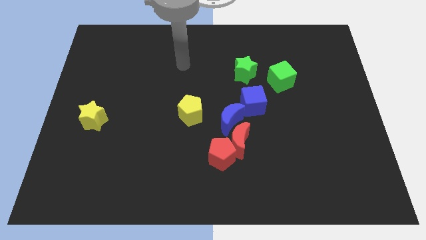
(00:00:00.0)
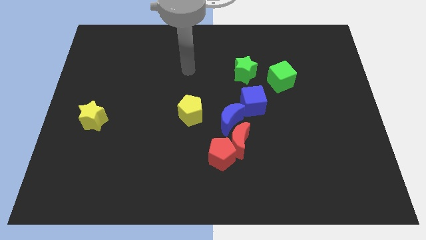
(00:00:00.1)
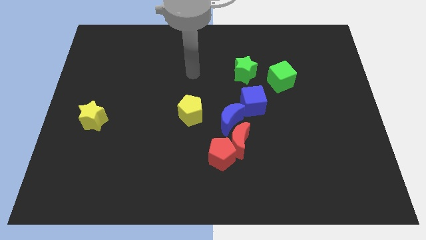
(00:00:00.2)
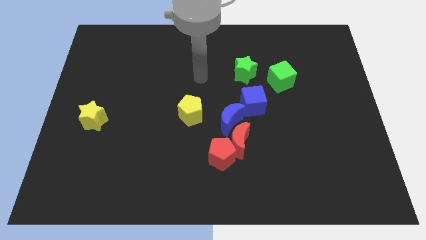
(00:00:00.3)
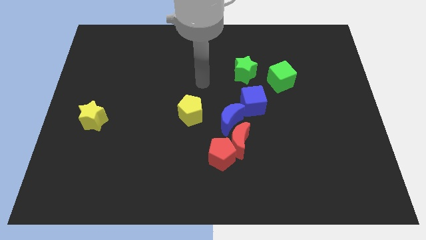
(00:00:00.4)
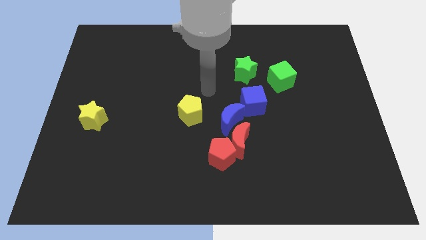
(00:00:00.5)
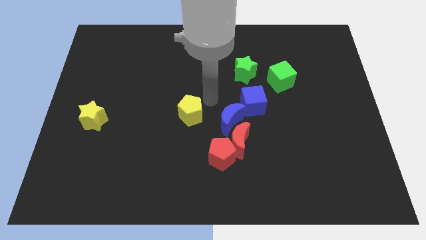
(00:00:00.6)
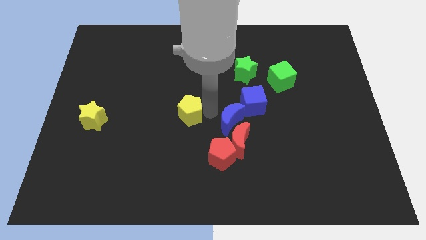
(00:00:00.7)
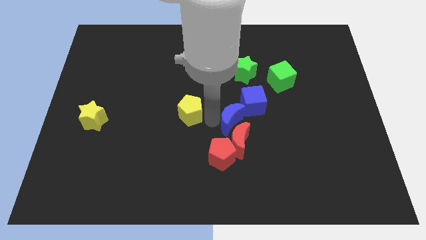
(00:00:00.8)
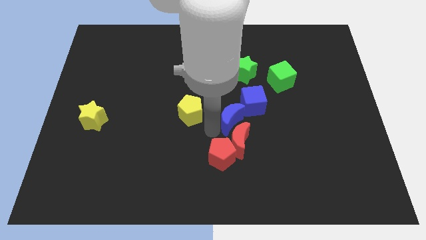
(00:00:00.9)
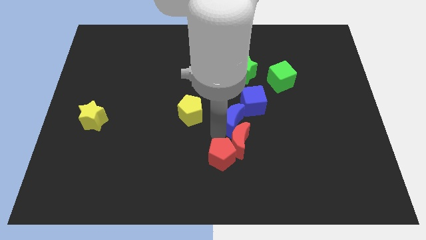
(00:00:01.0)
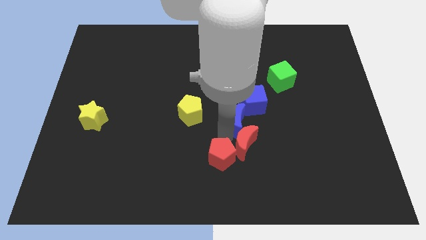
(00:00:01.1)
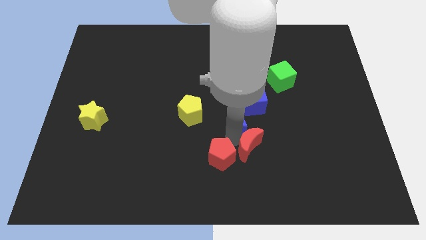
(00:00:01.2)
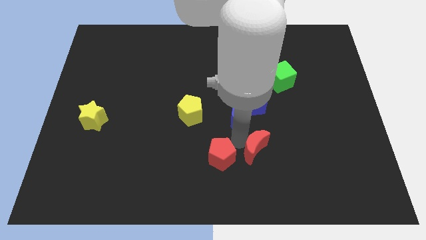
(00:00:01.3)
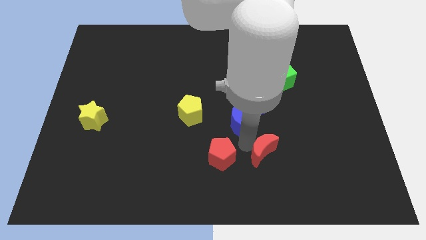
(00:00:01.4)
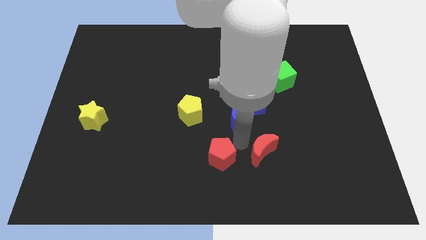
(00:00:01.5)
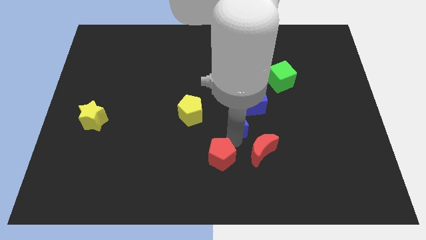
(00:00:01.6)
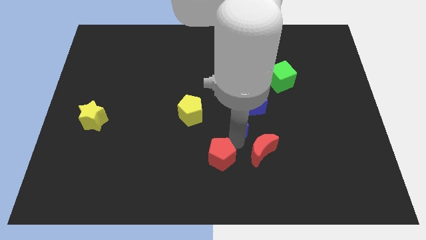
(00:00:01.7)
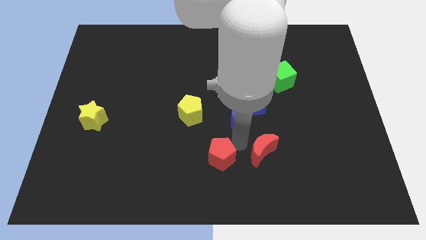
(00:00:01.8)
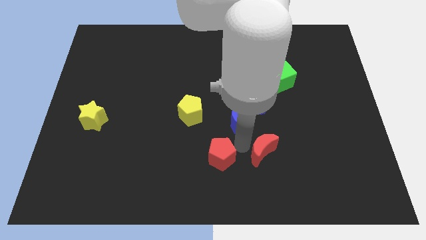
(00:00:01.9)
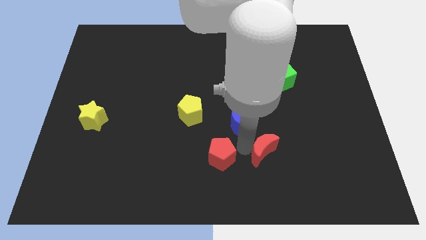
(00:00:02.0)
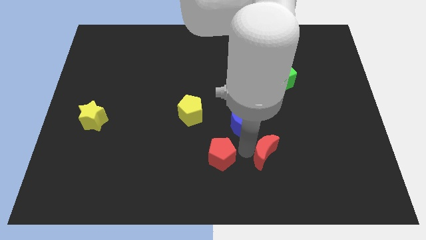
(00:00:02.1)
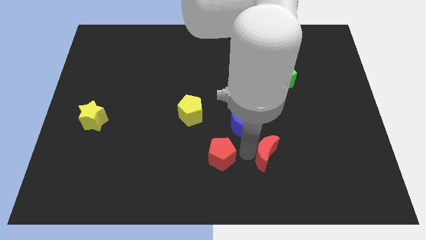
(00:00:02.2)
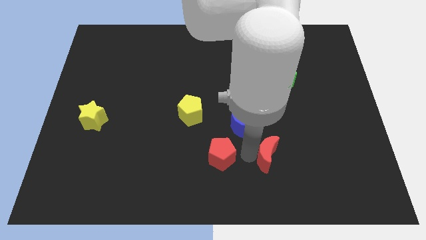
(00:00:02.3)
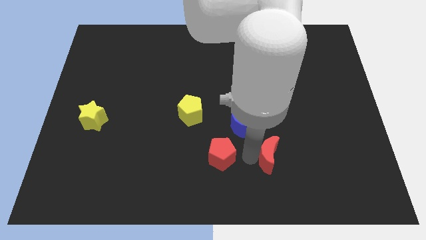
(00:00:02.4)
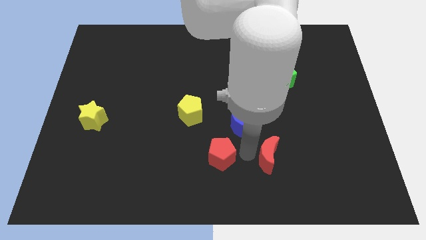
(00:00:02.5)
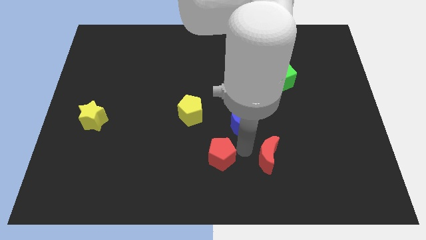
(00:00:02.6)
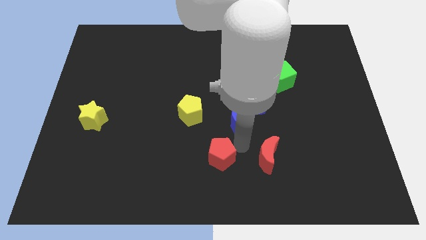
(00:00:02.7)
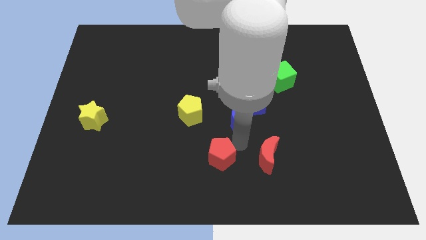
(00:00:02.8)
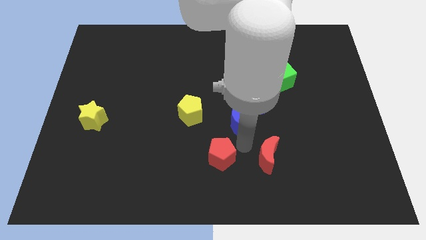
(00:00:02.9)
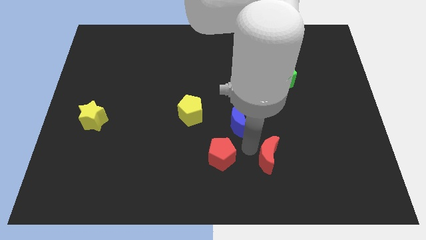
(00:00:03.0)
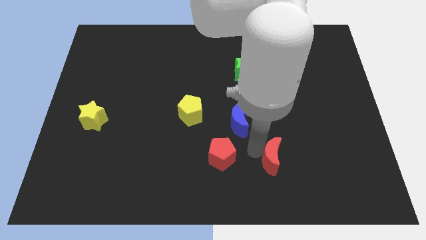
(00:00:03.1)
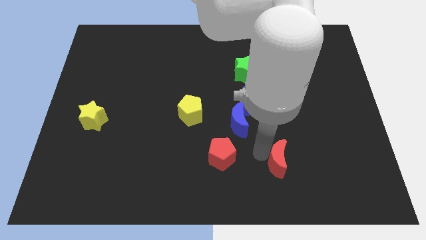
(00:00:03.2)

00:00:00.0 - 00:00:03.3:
move the red moon away from the red pentagon and blue moon

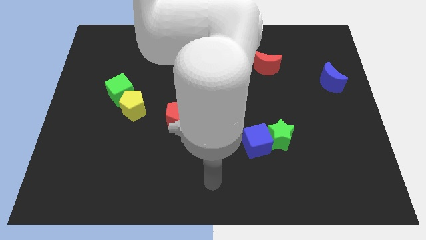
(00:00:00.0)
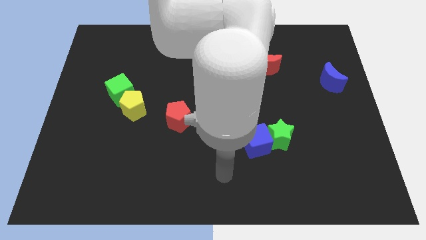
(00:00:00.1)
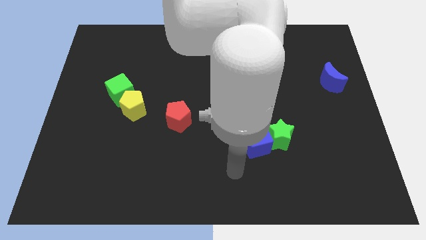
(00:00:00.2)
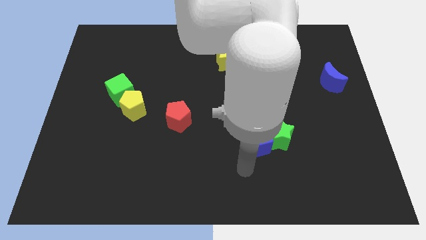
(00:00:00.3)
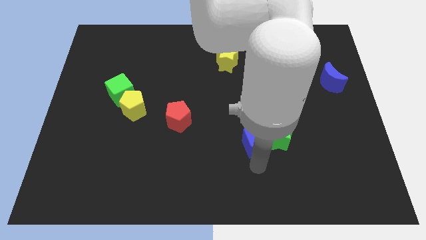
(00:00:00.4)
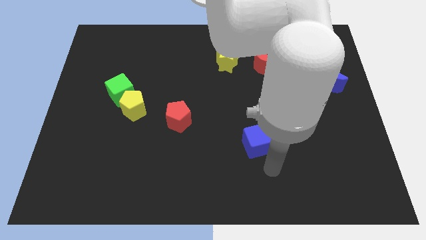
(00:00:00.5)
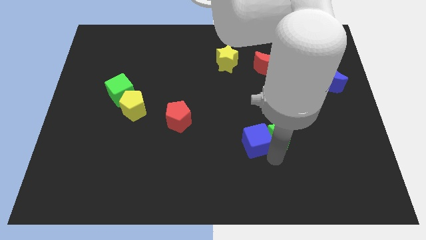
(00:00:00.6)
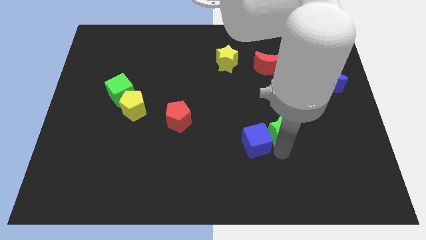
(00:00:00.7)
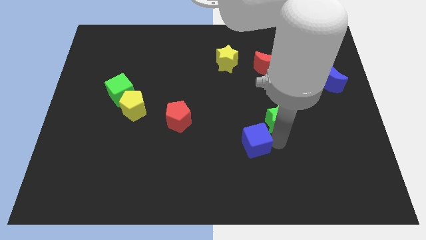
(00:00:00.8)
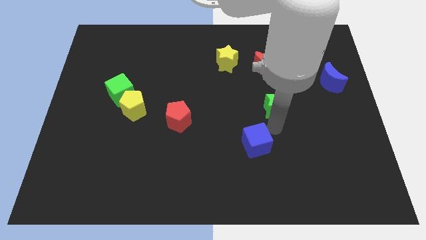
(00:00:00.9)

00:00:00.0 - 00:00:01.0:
pull the blue cube apart from the green star

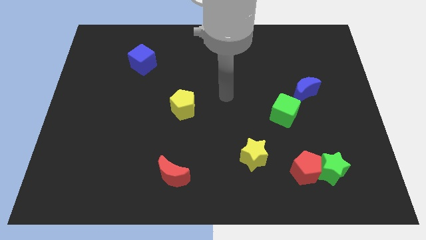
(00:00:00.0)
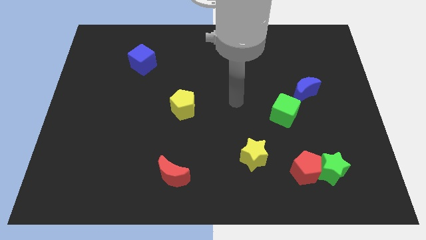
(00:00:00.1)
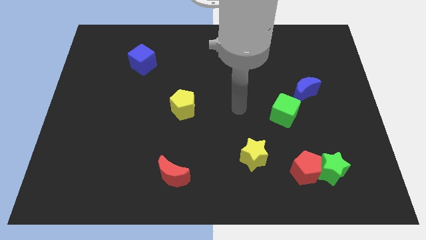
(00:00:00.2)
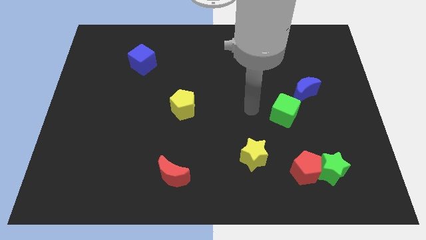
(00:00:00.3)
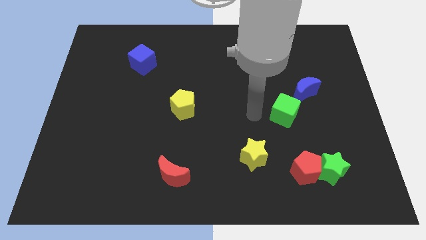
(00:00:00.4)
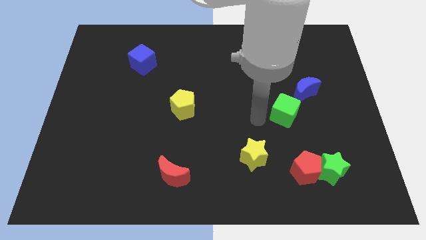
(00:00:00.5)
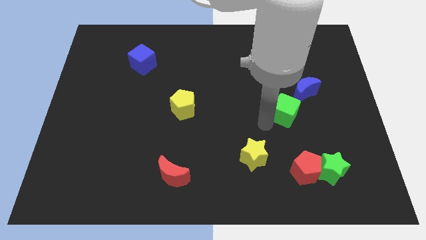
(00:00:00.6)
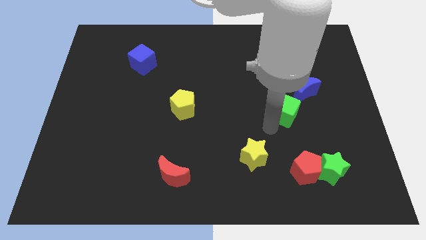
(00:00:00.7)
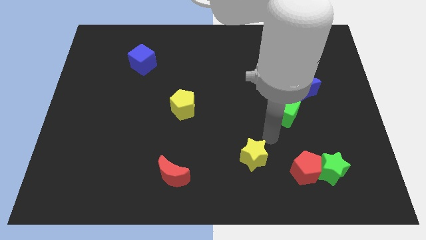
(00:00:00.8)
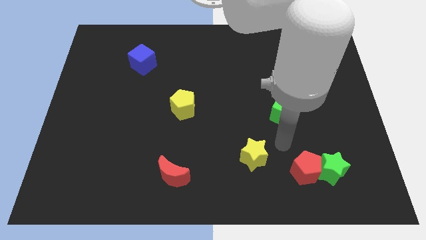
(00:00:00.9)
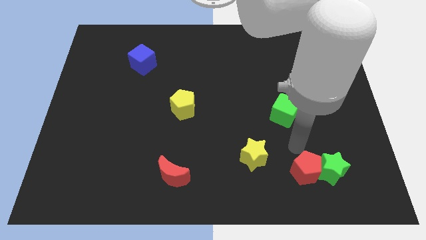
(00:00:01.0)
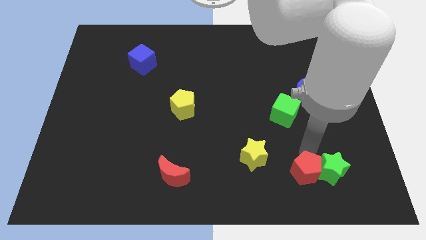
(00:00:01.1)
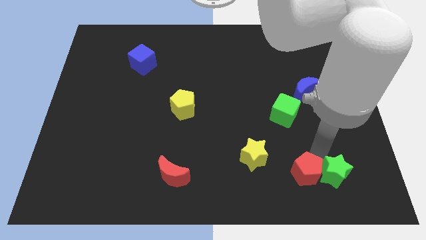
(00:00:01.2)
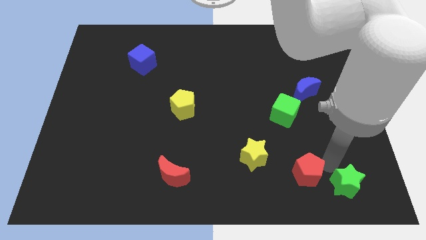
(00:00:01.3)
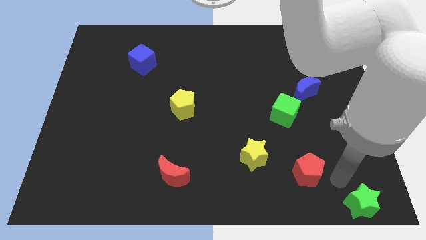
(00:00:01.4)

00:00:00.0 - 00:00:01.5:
pull the red pentagon apart from the green star

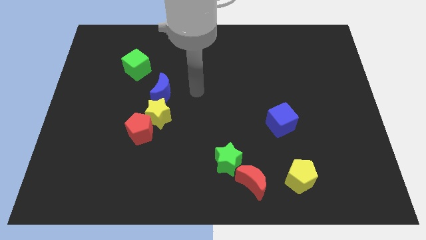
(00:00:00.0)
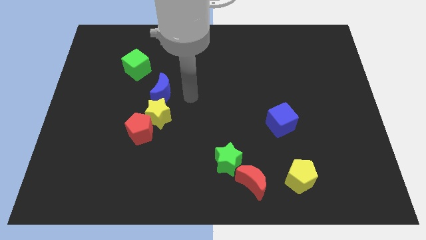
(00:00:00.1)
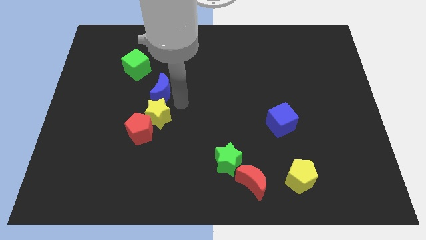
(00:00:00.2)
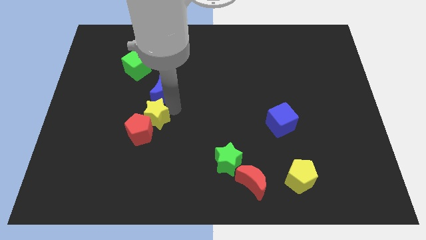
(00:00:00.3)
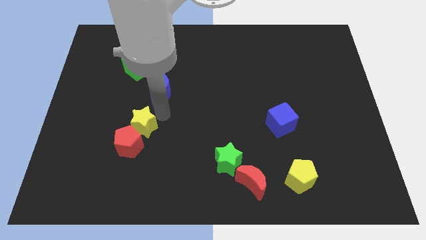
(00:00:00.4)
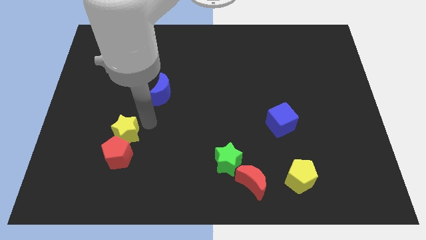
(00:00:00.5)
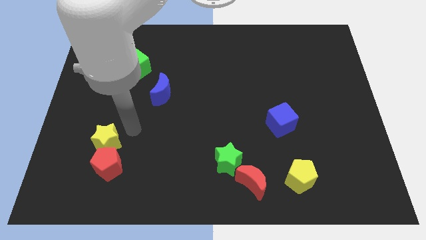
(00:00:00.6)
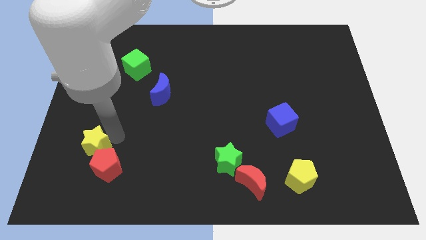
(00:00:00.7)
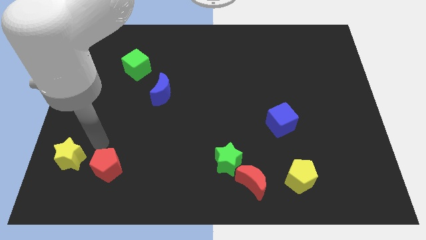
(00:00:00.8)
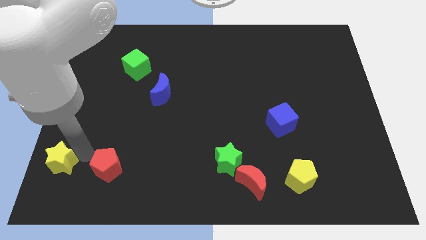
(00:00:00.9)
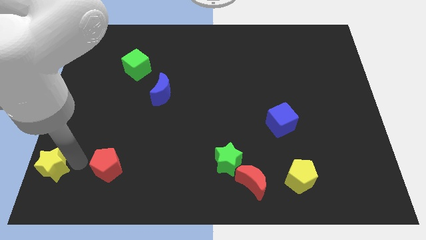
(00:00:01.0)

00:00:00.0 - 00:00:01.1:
pull the red pentagon apart from the yellow star

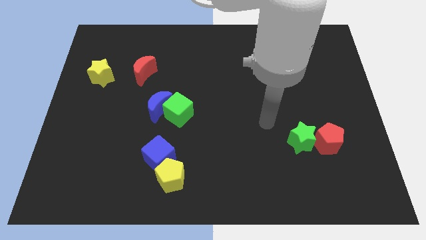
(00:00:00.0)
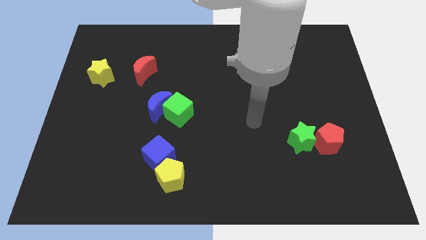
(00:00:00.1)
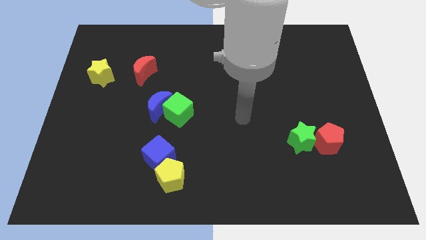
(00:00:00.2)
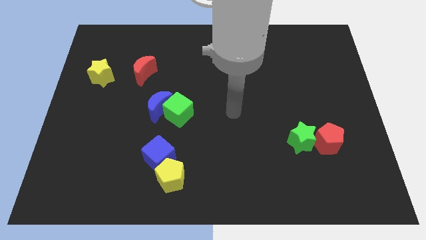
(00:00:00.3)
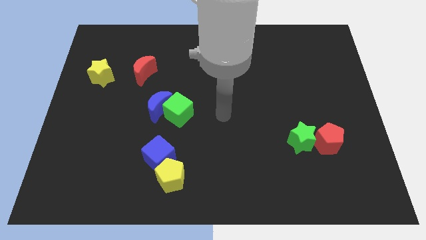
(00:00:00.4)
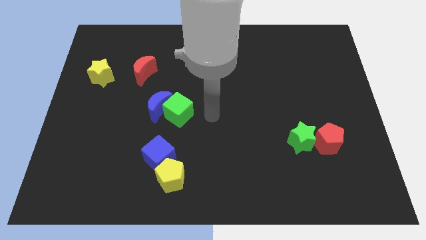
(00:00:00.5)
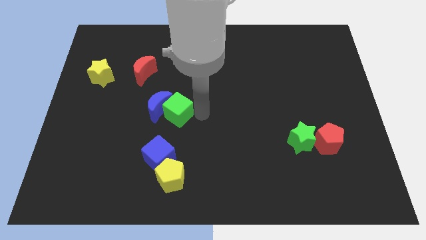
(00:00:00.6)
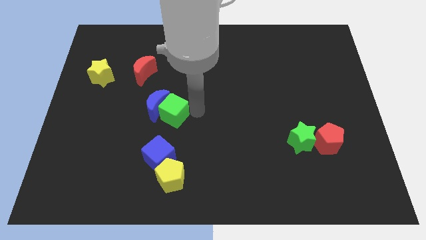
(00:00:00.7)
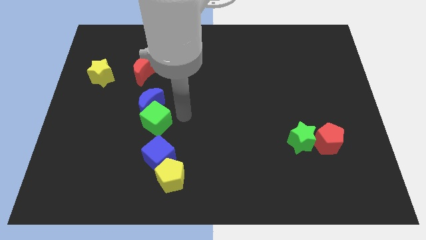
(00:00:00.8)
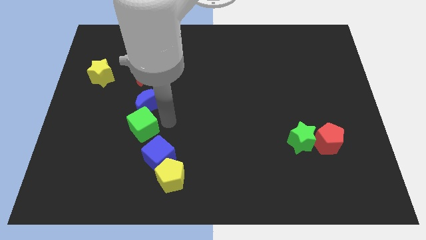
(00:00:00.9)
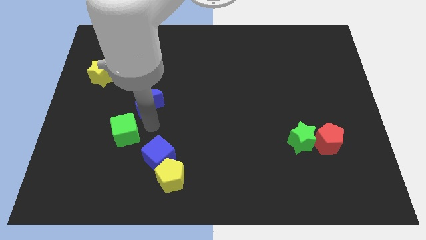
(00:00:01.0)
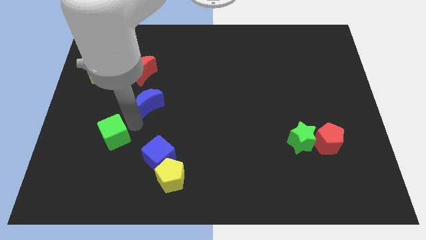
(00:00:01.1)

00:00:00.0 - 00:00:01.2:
separate the blue moon from the green cube

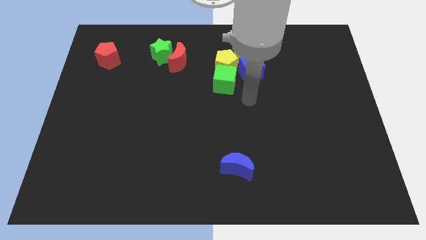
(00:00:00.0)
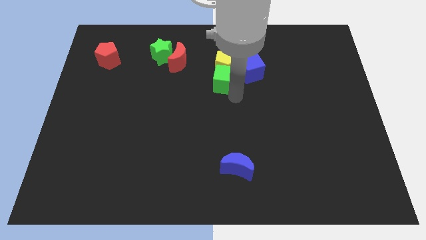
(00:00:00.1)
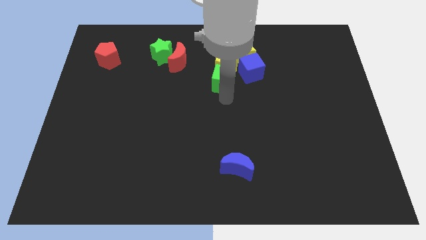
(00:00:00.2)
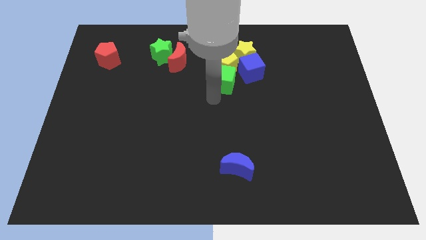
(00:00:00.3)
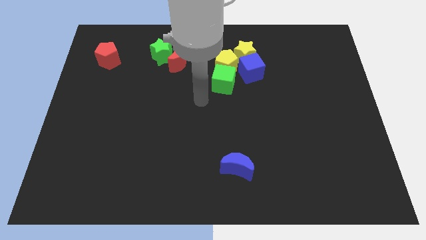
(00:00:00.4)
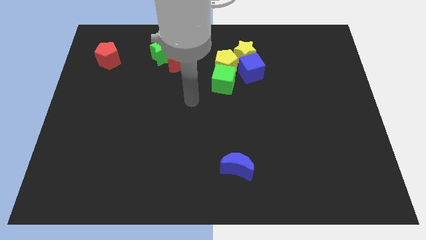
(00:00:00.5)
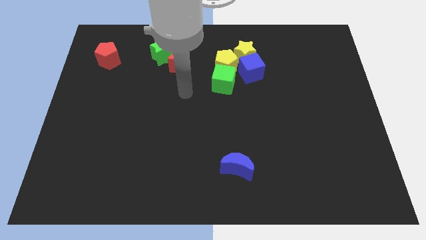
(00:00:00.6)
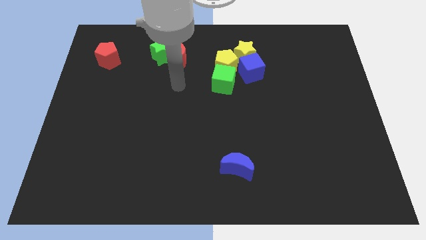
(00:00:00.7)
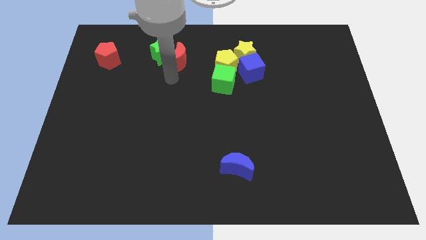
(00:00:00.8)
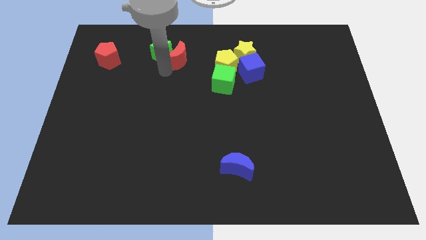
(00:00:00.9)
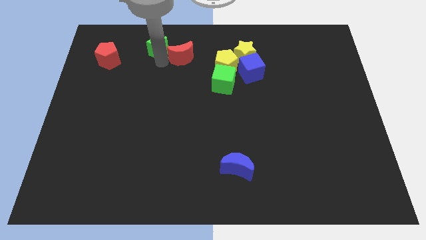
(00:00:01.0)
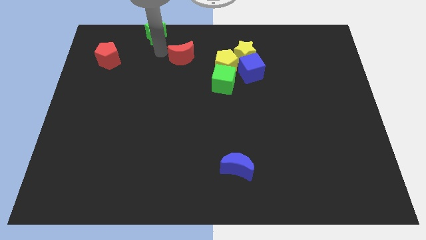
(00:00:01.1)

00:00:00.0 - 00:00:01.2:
separate the red moon from the green star
